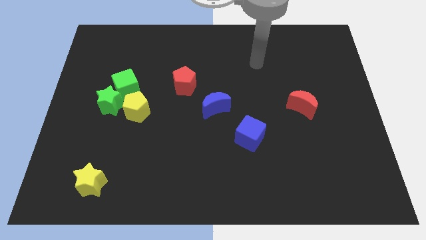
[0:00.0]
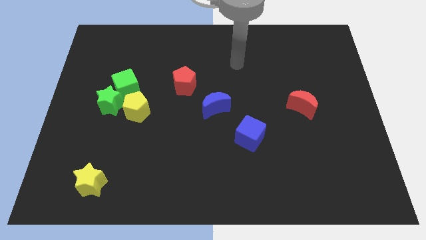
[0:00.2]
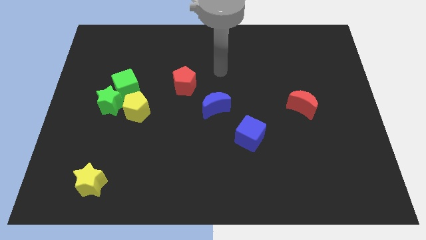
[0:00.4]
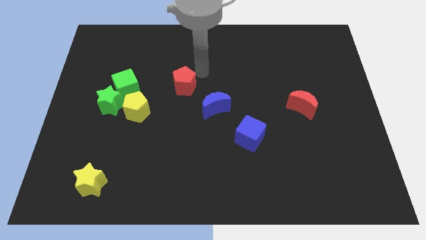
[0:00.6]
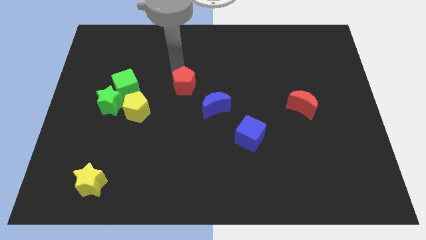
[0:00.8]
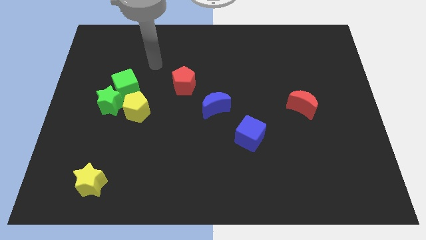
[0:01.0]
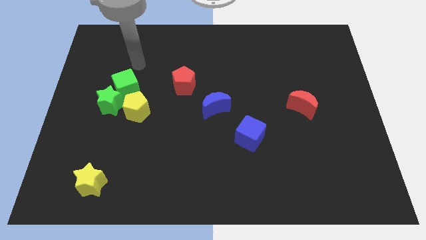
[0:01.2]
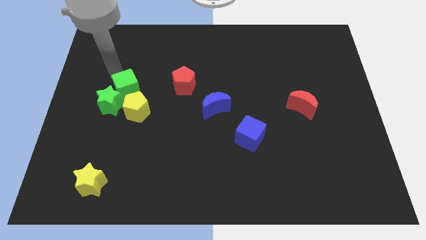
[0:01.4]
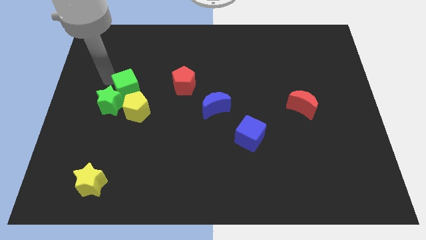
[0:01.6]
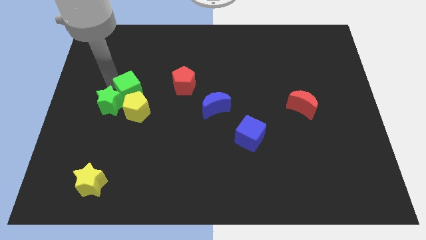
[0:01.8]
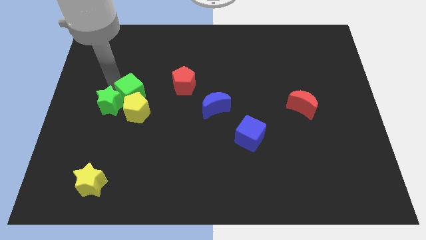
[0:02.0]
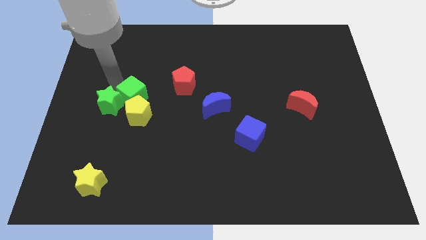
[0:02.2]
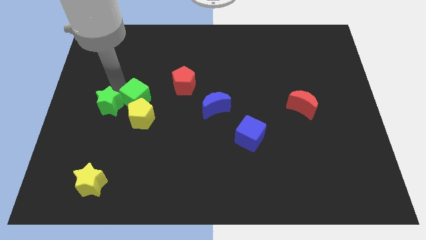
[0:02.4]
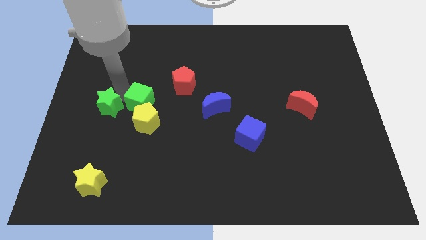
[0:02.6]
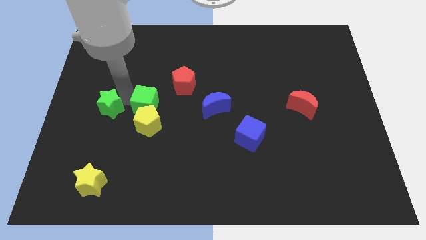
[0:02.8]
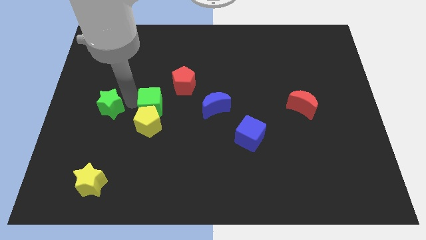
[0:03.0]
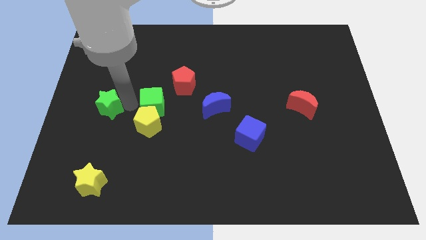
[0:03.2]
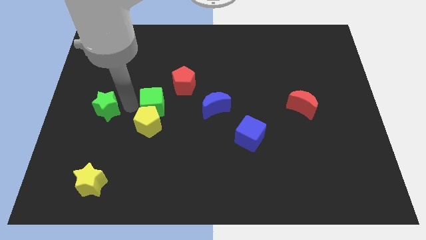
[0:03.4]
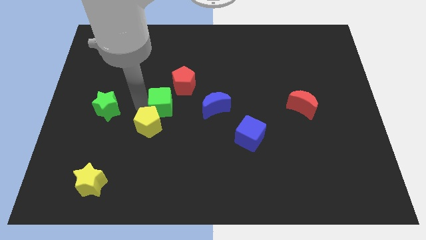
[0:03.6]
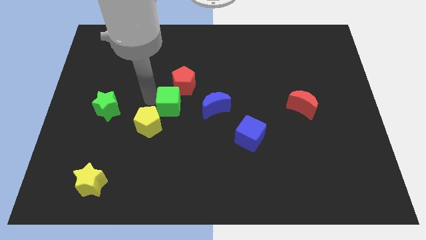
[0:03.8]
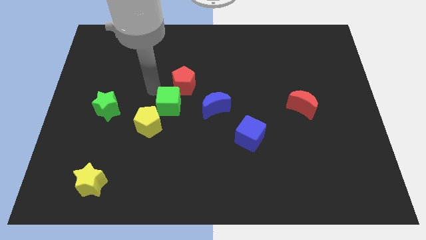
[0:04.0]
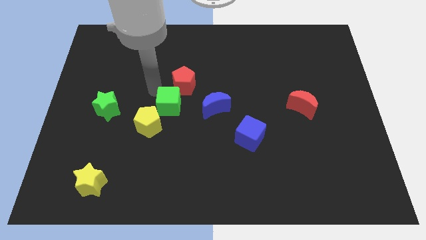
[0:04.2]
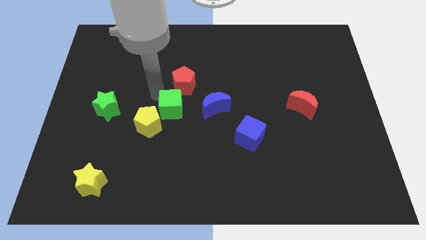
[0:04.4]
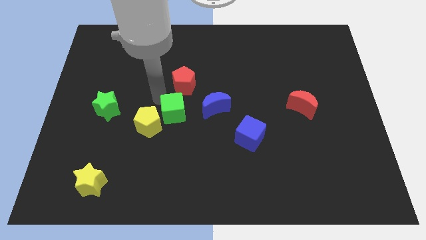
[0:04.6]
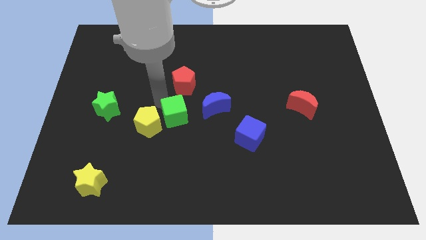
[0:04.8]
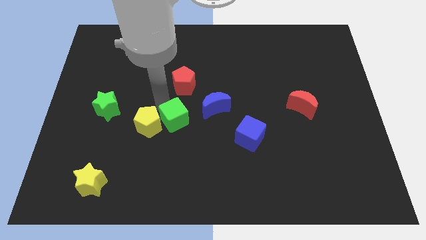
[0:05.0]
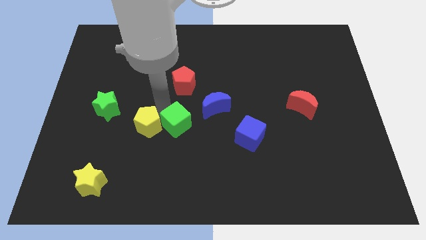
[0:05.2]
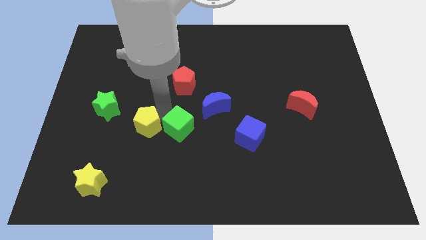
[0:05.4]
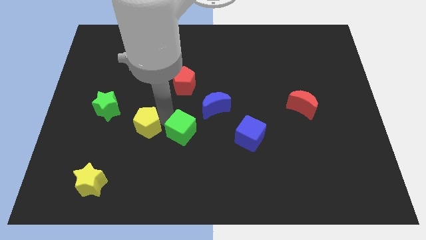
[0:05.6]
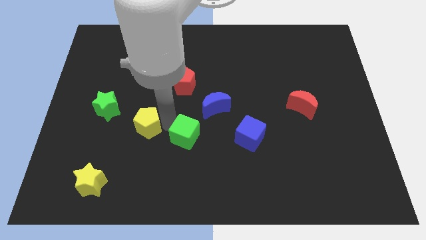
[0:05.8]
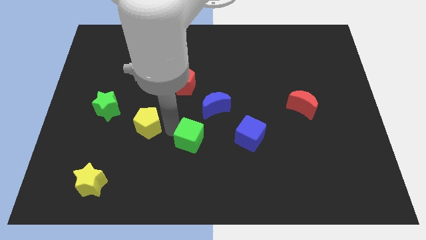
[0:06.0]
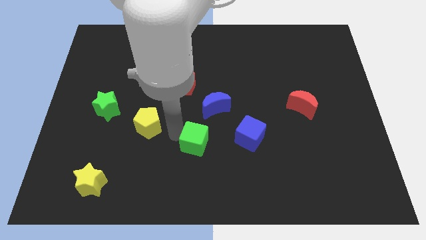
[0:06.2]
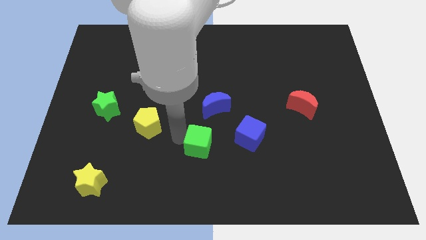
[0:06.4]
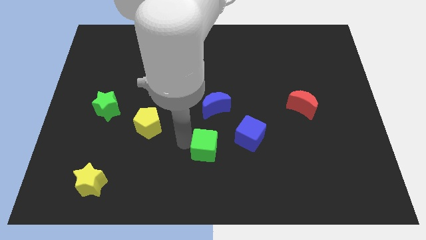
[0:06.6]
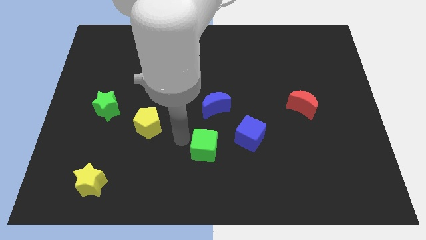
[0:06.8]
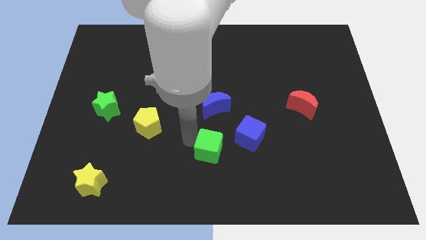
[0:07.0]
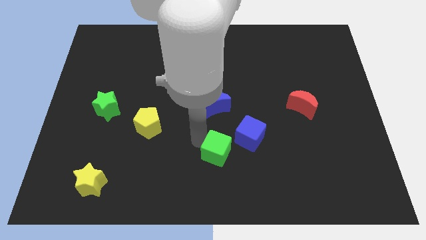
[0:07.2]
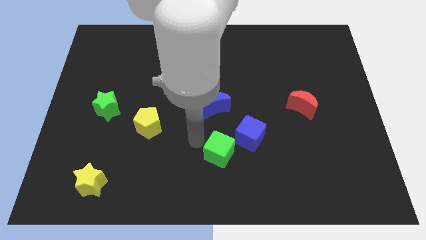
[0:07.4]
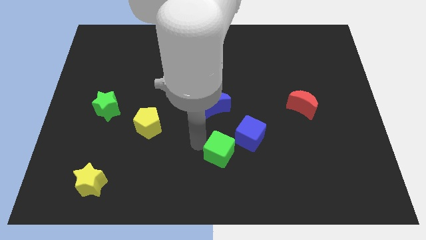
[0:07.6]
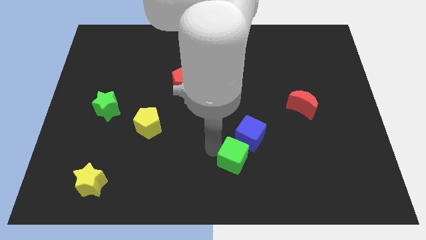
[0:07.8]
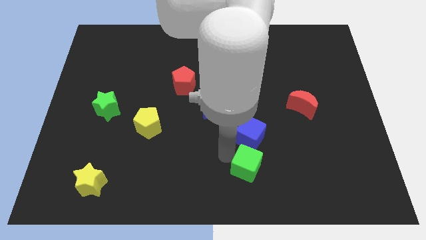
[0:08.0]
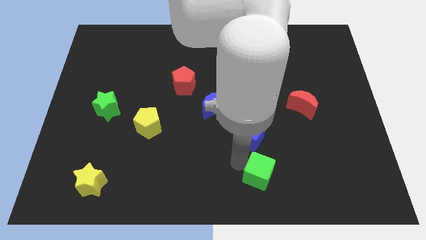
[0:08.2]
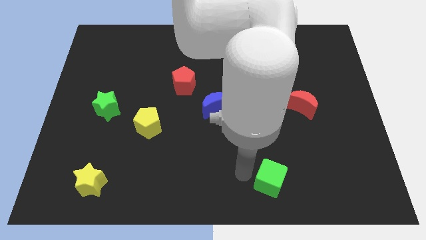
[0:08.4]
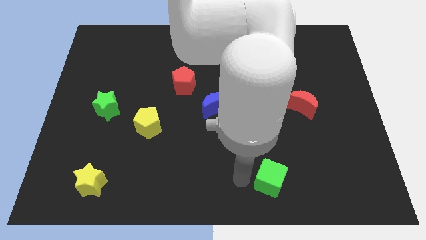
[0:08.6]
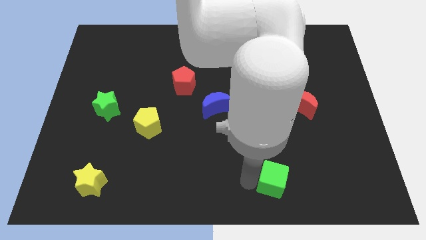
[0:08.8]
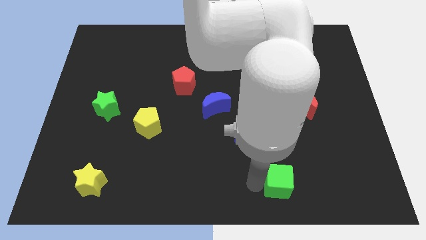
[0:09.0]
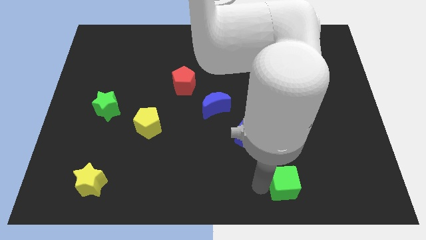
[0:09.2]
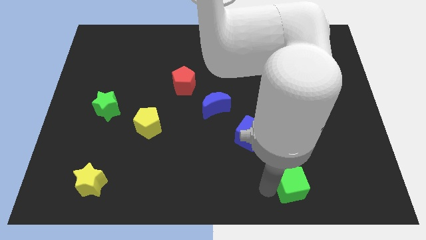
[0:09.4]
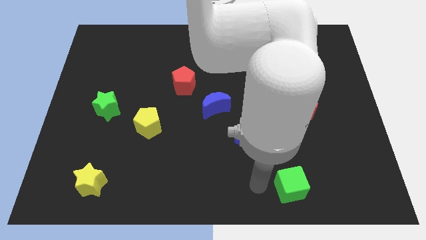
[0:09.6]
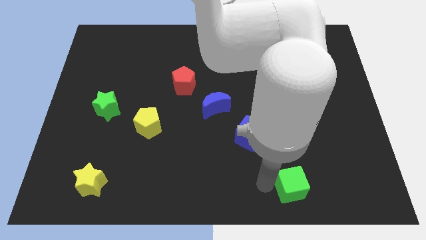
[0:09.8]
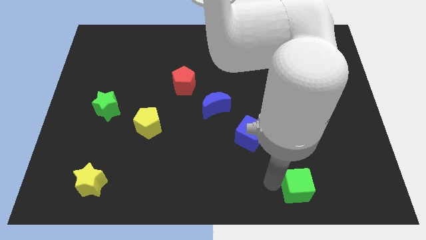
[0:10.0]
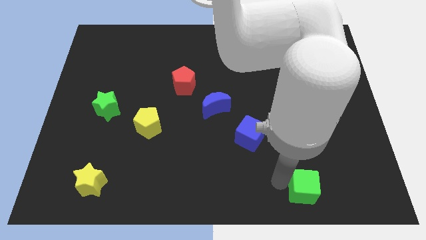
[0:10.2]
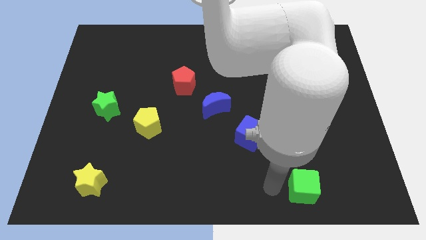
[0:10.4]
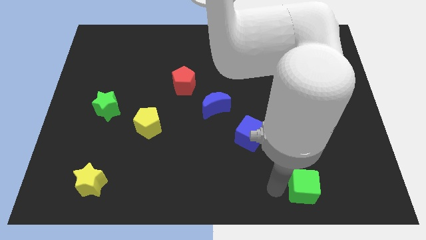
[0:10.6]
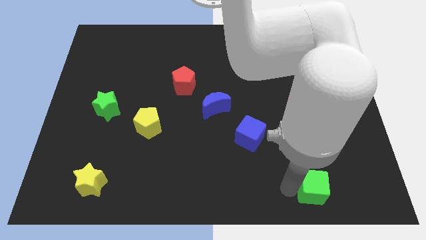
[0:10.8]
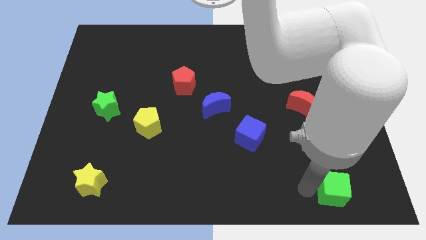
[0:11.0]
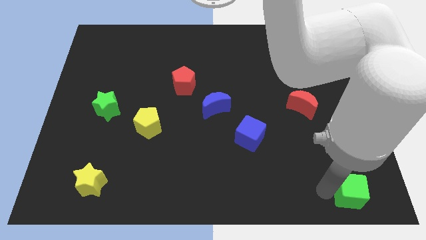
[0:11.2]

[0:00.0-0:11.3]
slide the green cube to the lower right corner
